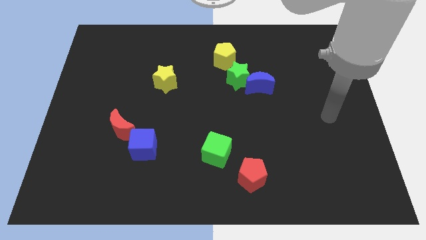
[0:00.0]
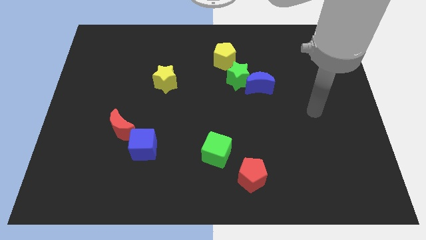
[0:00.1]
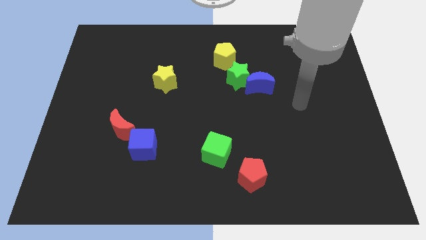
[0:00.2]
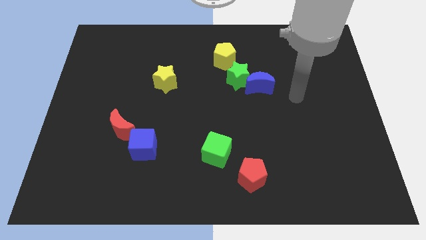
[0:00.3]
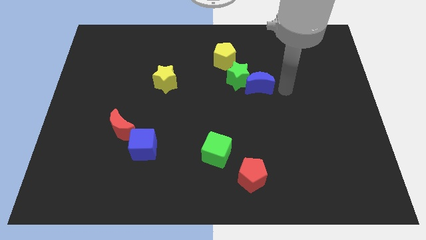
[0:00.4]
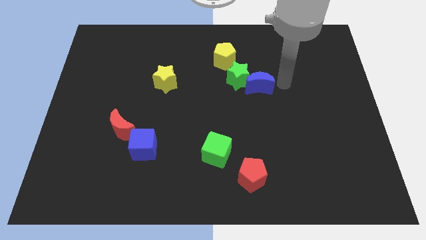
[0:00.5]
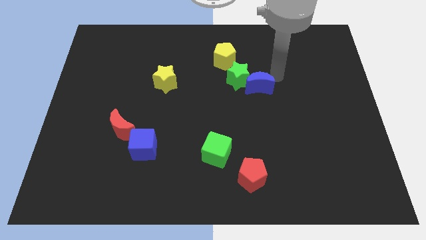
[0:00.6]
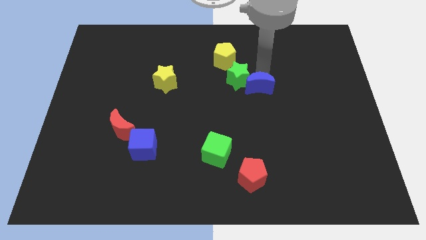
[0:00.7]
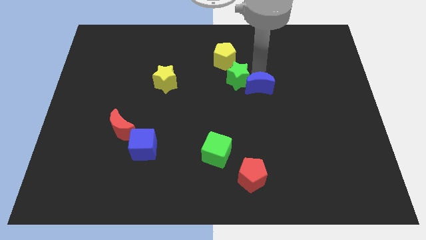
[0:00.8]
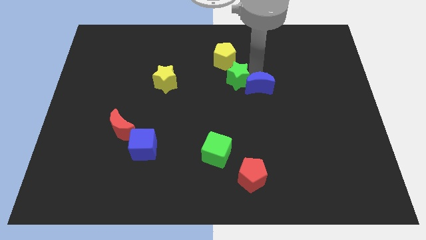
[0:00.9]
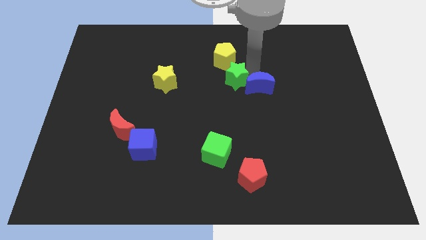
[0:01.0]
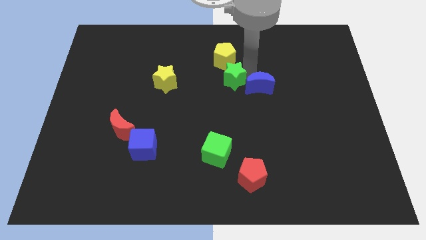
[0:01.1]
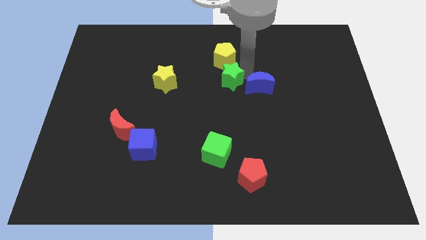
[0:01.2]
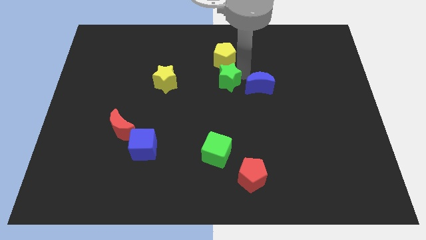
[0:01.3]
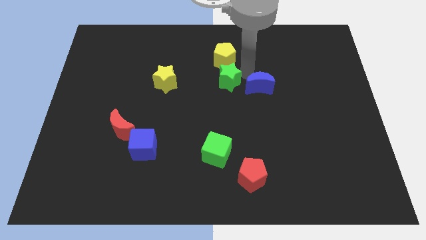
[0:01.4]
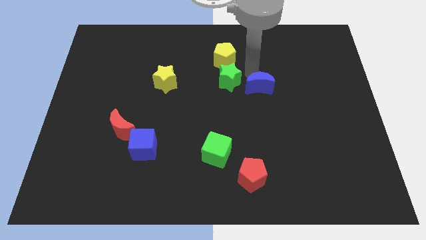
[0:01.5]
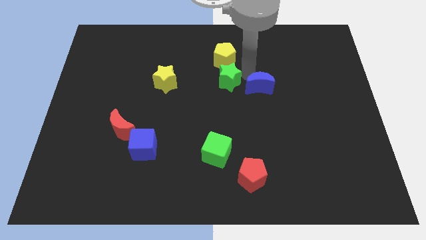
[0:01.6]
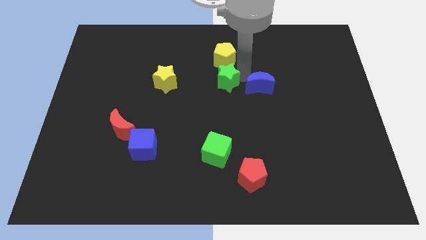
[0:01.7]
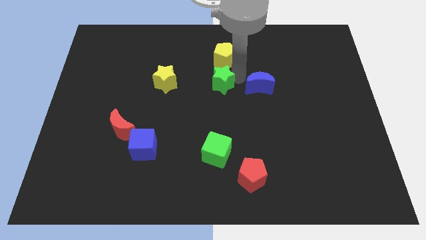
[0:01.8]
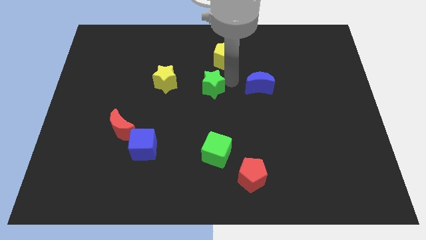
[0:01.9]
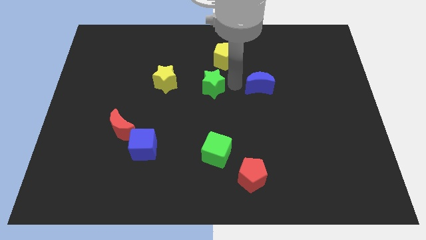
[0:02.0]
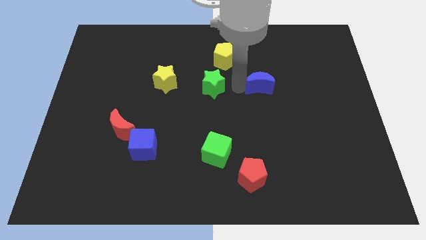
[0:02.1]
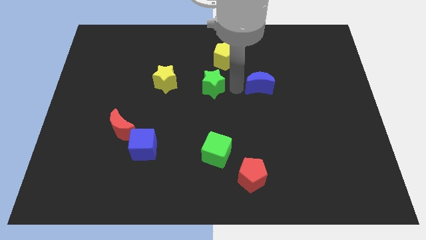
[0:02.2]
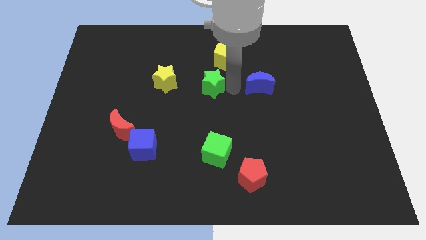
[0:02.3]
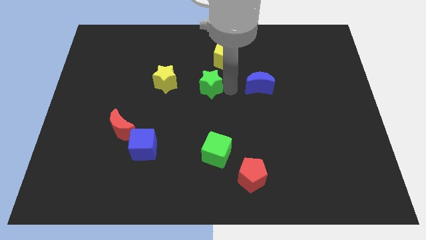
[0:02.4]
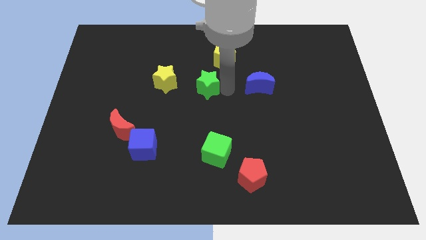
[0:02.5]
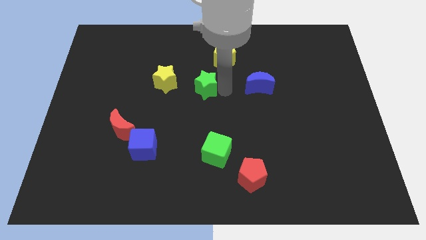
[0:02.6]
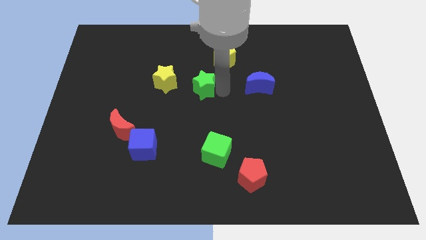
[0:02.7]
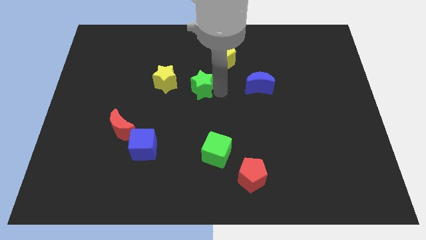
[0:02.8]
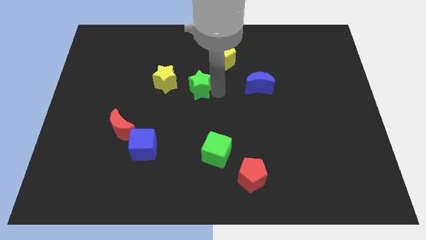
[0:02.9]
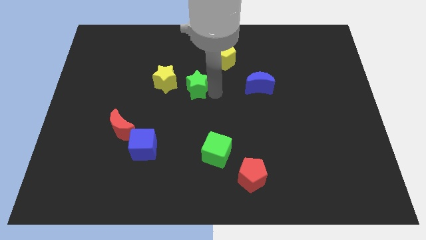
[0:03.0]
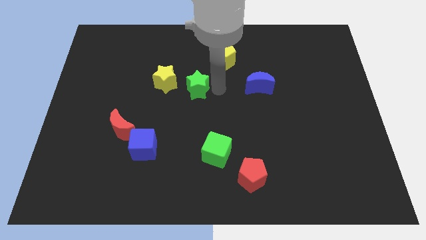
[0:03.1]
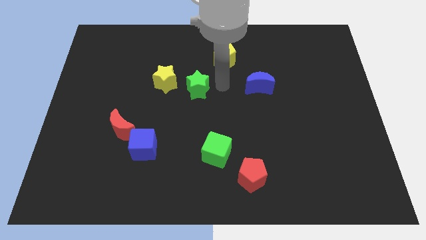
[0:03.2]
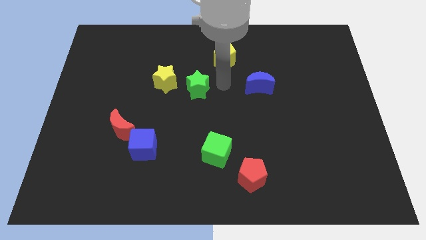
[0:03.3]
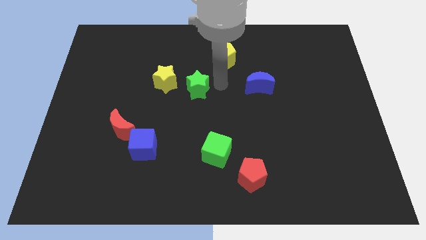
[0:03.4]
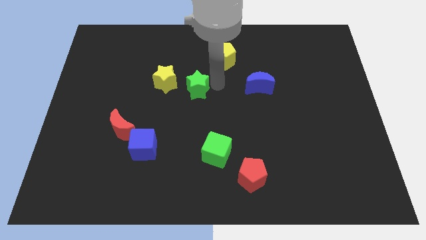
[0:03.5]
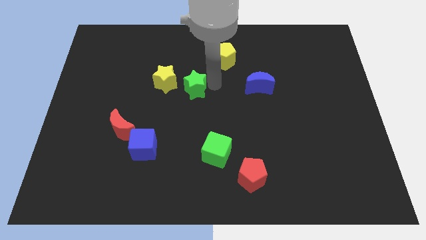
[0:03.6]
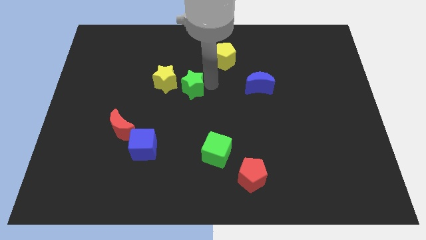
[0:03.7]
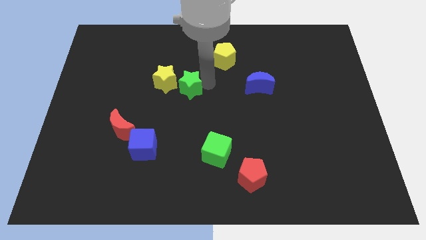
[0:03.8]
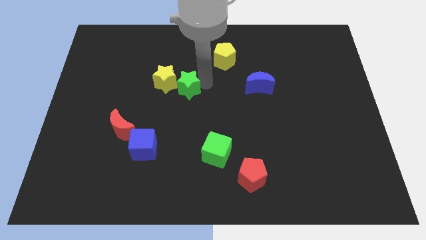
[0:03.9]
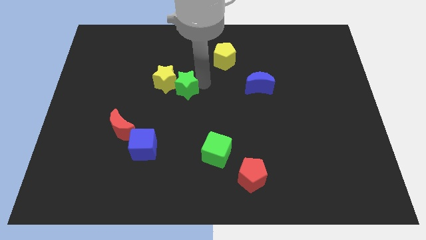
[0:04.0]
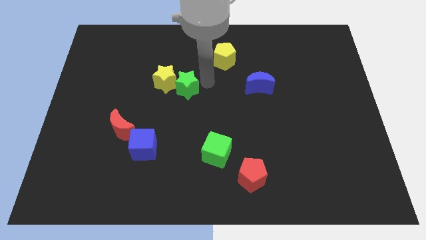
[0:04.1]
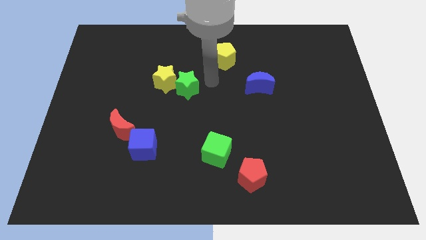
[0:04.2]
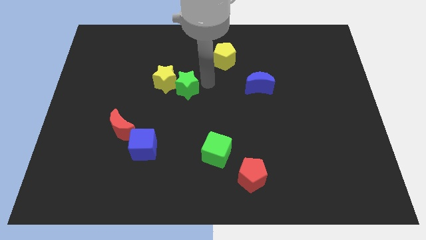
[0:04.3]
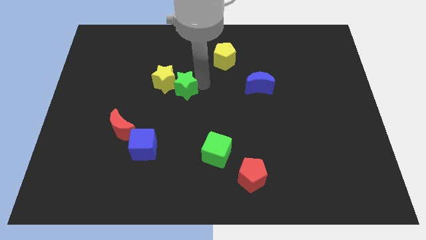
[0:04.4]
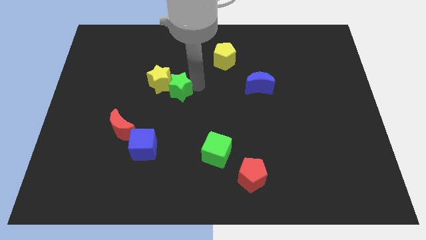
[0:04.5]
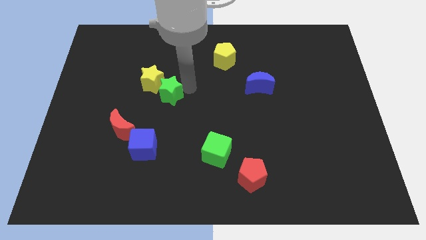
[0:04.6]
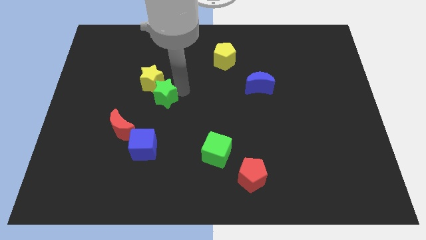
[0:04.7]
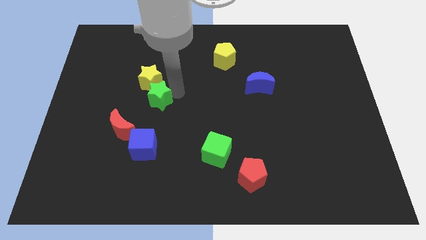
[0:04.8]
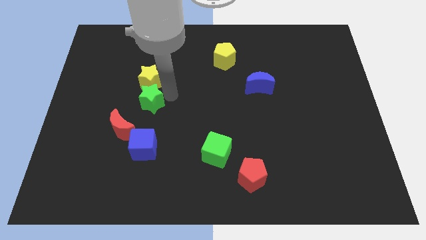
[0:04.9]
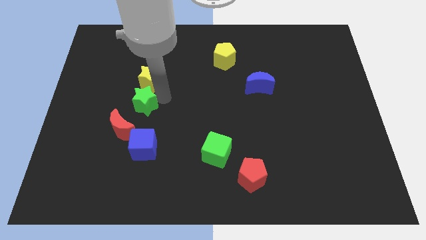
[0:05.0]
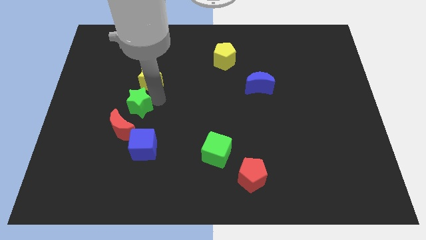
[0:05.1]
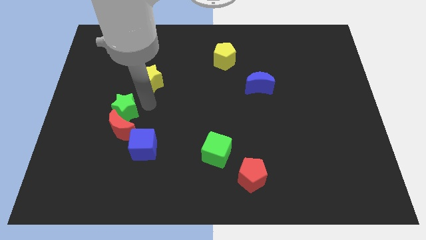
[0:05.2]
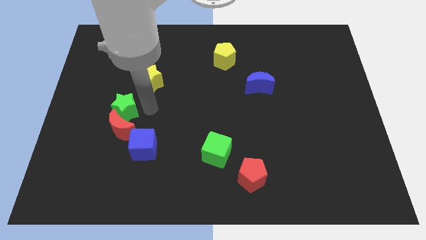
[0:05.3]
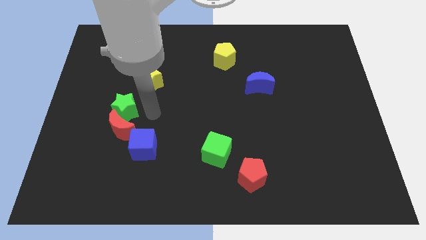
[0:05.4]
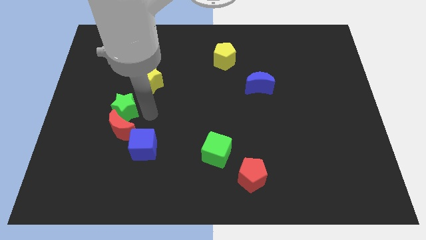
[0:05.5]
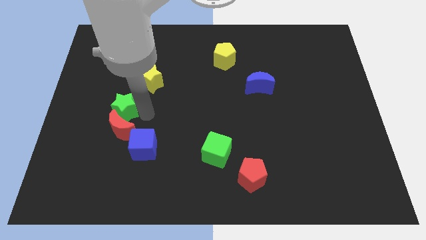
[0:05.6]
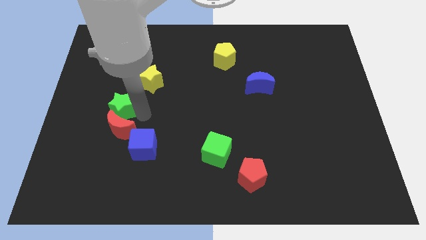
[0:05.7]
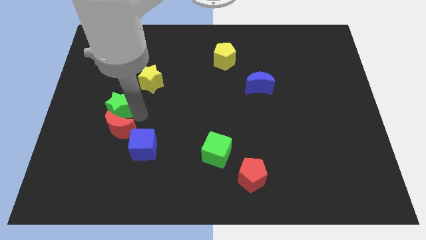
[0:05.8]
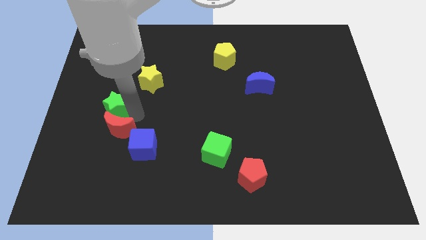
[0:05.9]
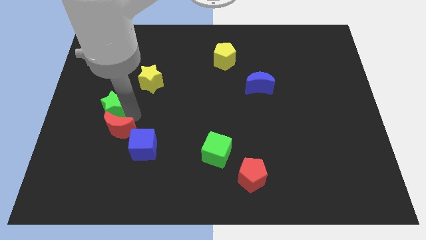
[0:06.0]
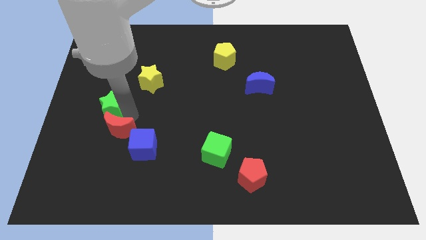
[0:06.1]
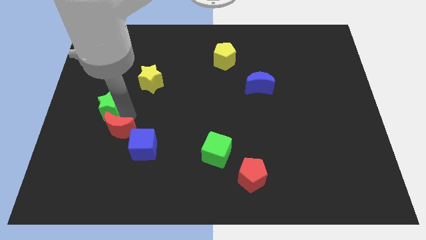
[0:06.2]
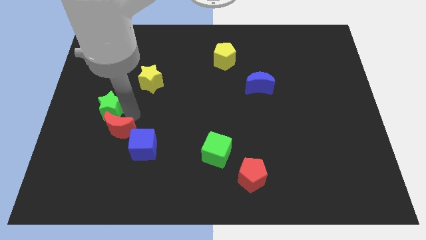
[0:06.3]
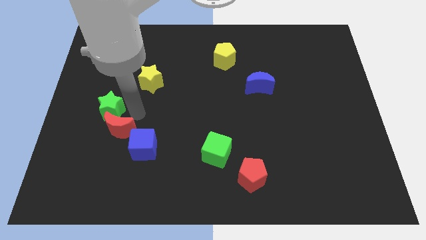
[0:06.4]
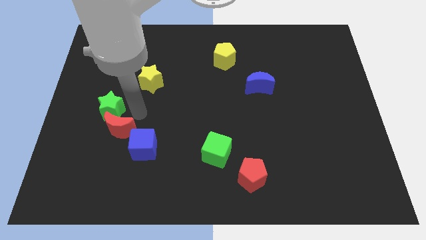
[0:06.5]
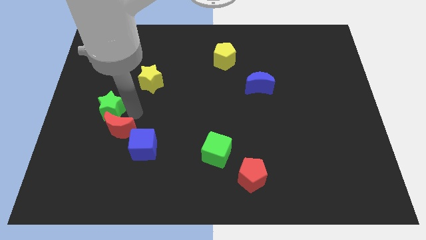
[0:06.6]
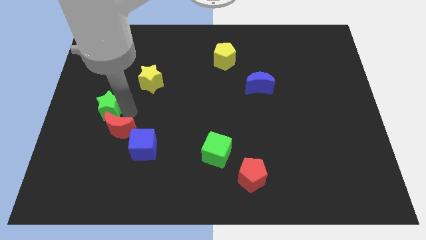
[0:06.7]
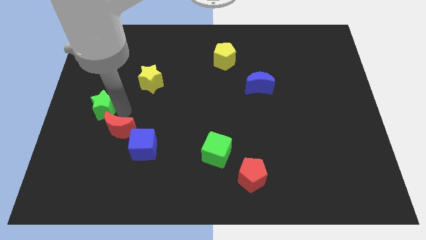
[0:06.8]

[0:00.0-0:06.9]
push the green star to the left side of the board
